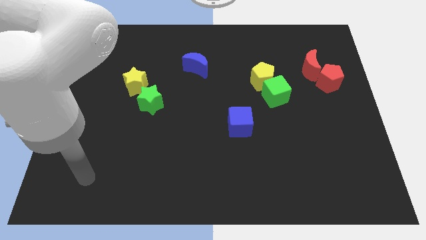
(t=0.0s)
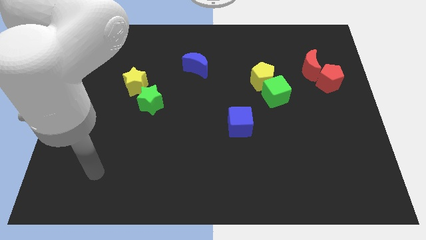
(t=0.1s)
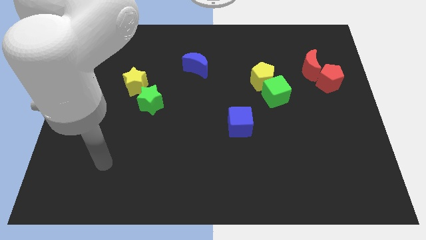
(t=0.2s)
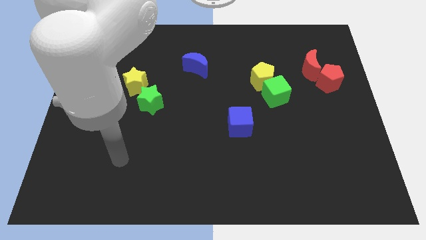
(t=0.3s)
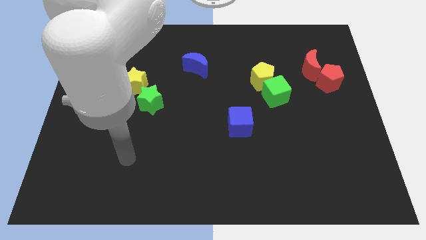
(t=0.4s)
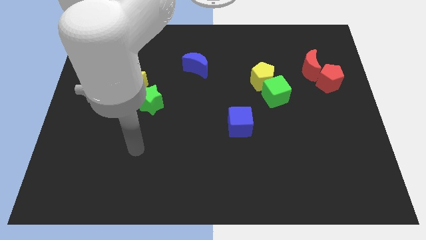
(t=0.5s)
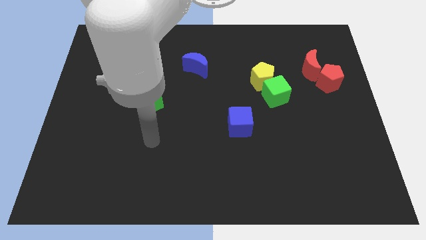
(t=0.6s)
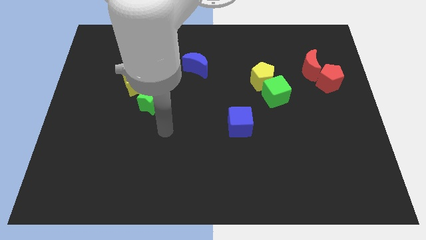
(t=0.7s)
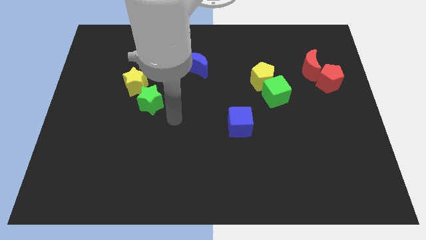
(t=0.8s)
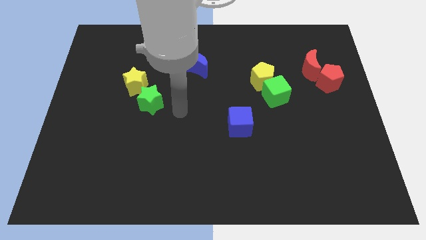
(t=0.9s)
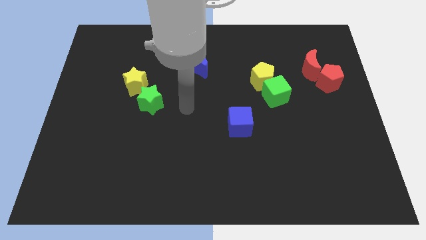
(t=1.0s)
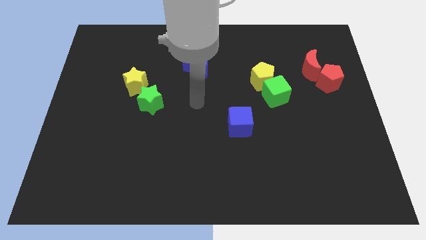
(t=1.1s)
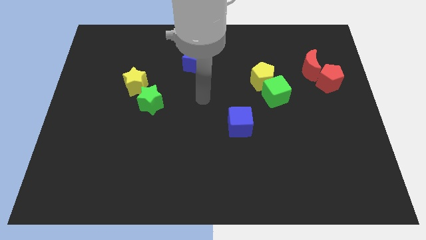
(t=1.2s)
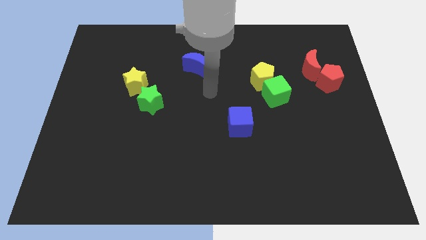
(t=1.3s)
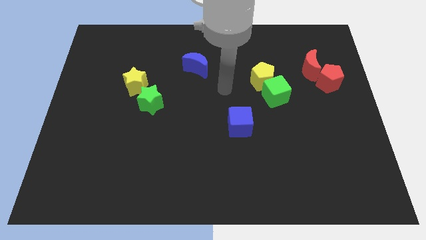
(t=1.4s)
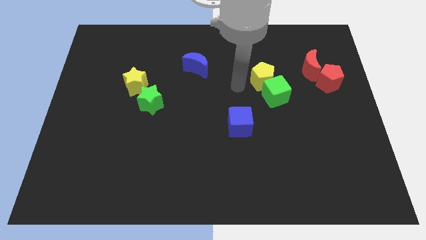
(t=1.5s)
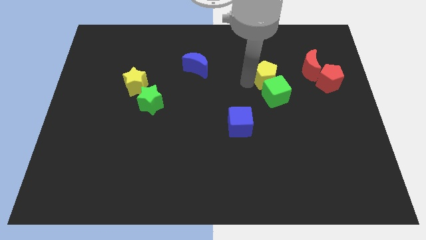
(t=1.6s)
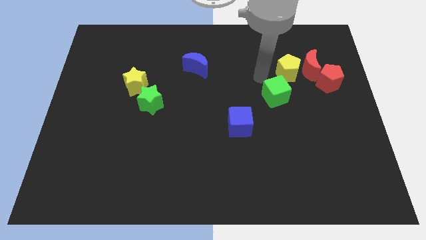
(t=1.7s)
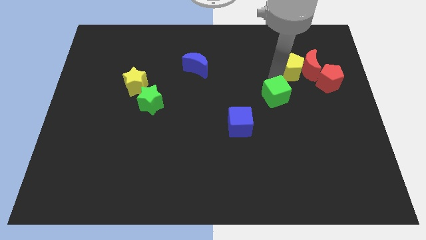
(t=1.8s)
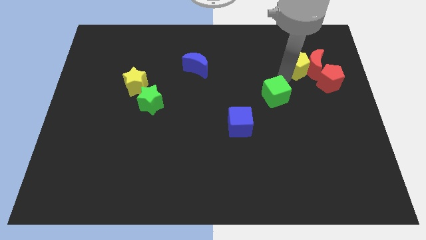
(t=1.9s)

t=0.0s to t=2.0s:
move the green cube away from the yellow pentagon

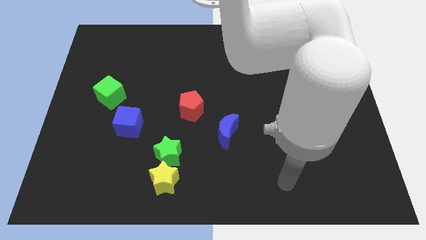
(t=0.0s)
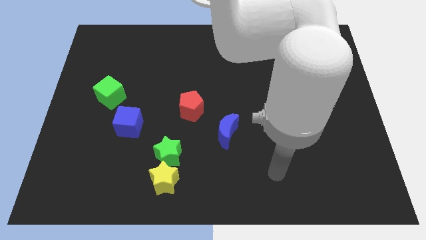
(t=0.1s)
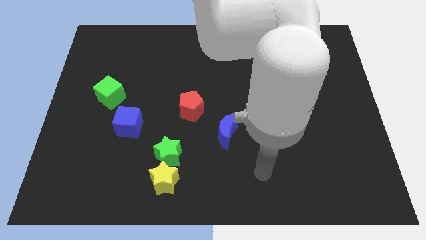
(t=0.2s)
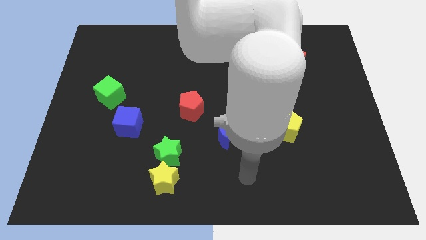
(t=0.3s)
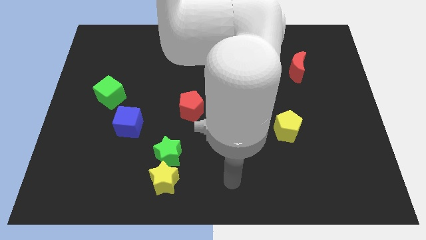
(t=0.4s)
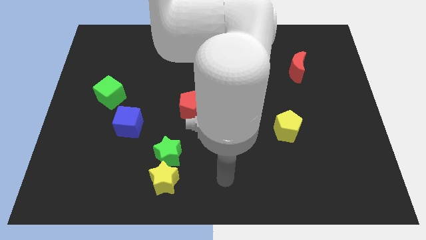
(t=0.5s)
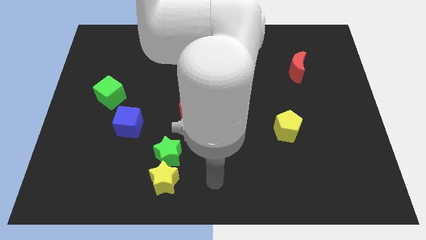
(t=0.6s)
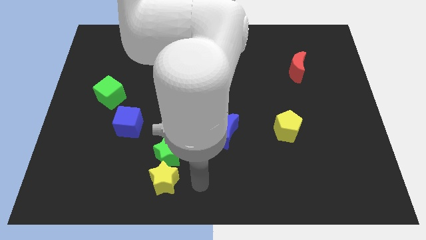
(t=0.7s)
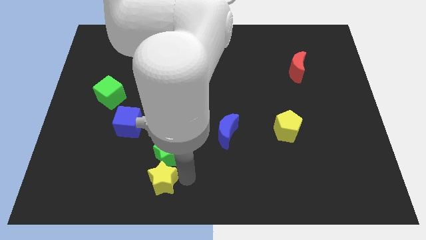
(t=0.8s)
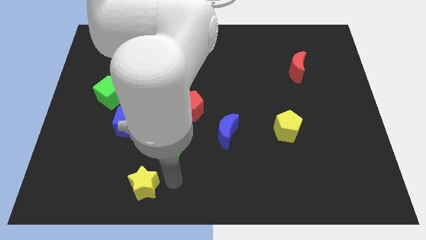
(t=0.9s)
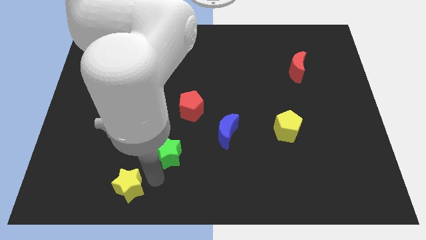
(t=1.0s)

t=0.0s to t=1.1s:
separate the green star from the yellow star

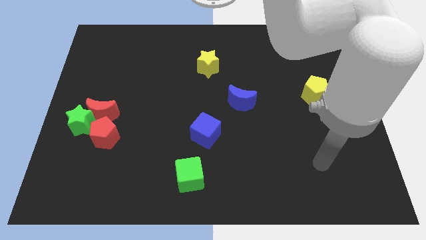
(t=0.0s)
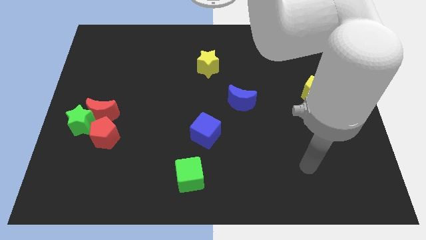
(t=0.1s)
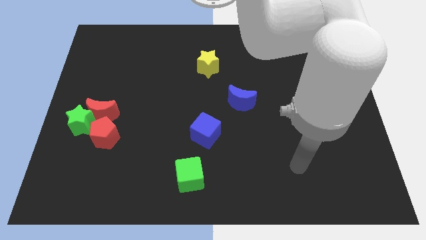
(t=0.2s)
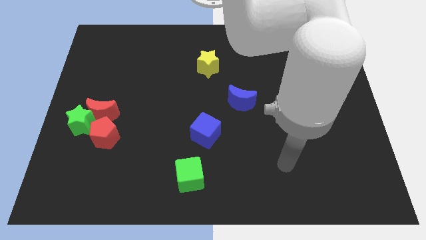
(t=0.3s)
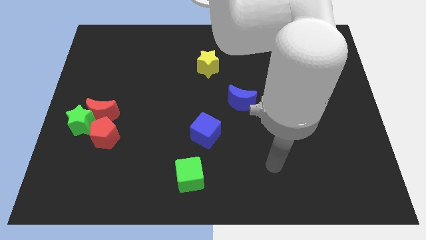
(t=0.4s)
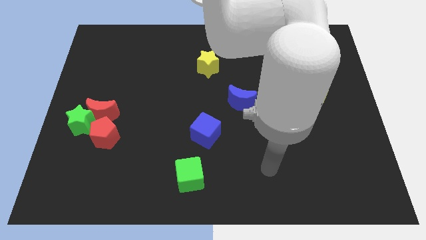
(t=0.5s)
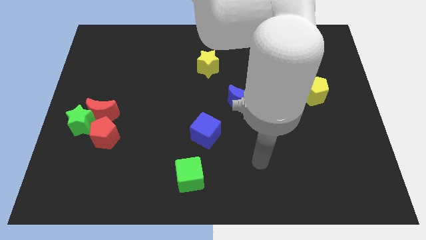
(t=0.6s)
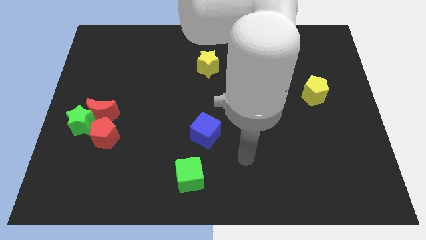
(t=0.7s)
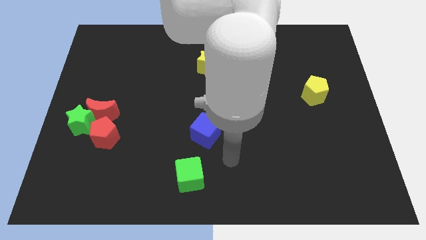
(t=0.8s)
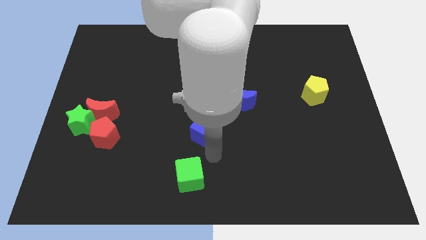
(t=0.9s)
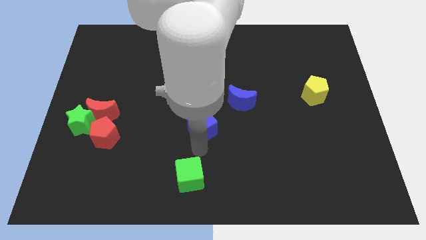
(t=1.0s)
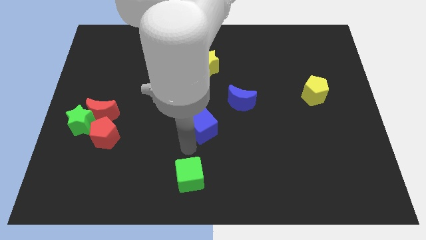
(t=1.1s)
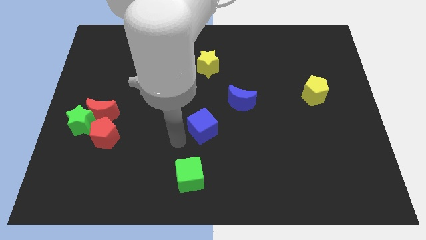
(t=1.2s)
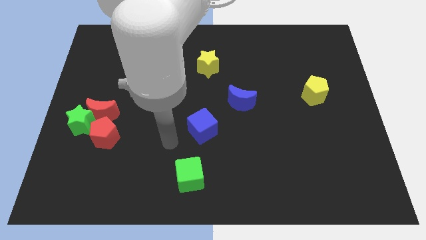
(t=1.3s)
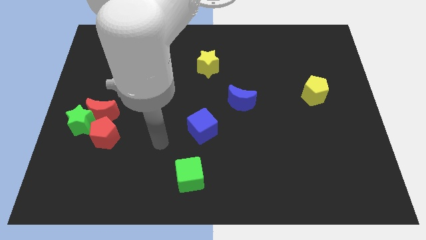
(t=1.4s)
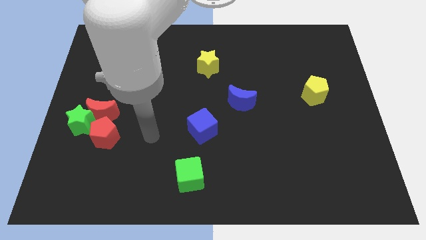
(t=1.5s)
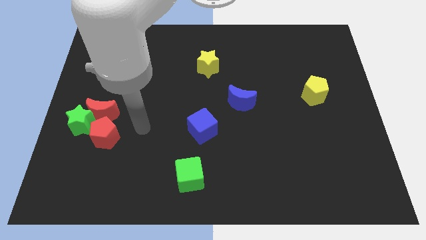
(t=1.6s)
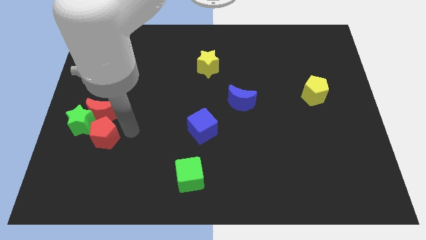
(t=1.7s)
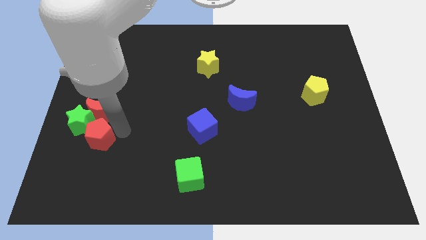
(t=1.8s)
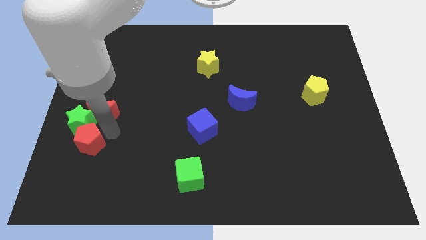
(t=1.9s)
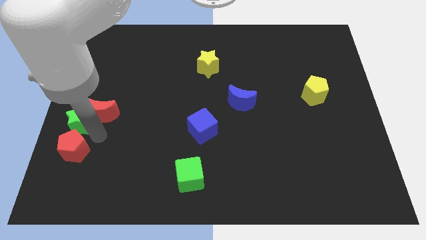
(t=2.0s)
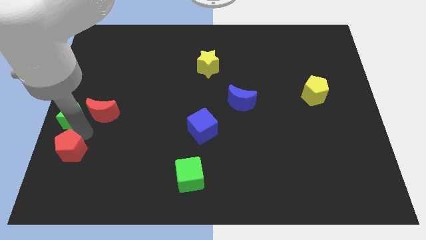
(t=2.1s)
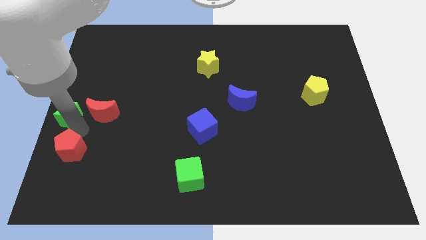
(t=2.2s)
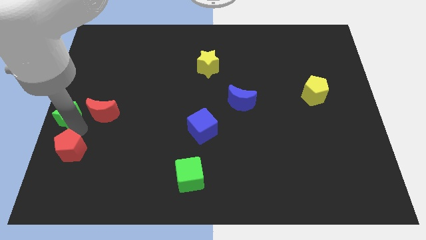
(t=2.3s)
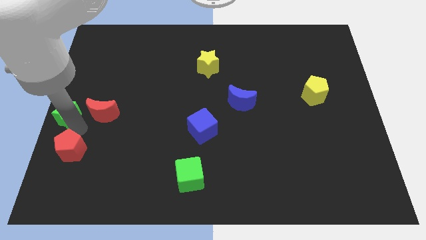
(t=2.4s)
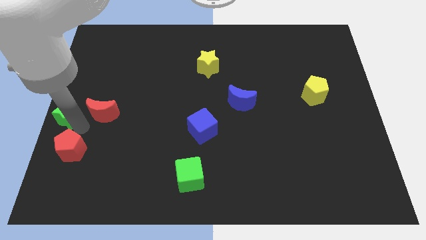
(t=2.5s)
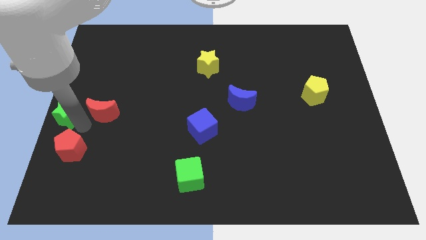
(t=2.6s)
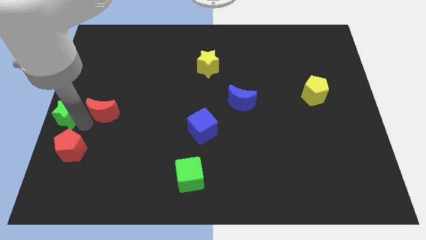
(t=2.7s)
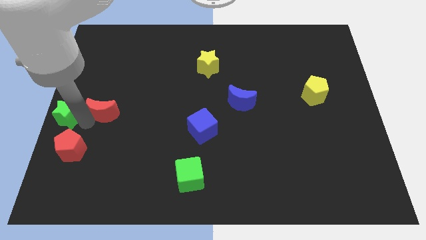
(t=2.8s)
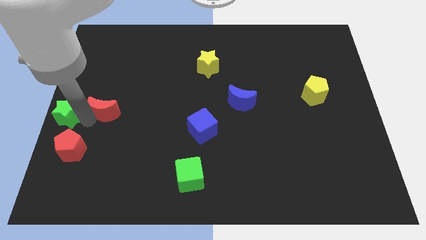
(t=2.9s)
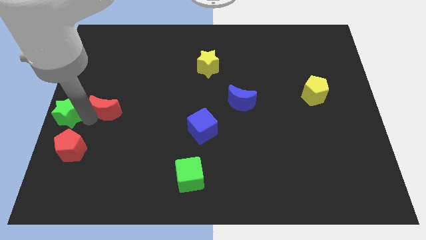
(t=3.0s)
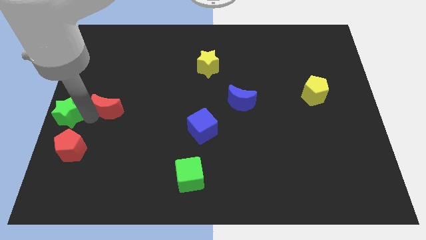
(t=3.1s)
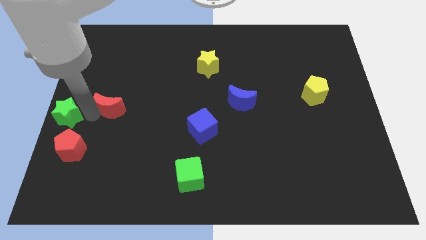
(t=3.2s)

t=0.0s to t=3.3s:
separate the red moon from the green star and red pentagon

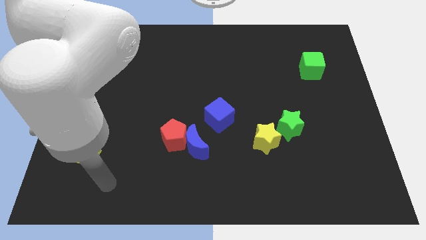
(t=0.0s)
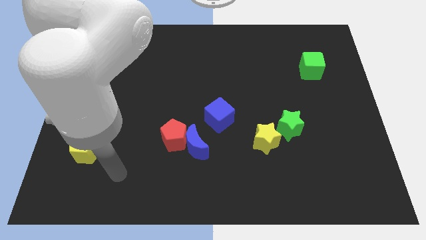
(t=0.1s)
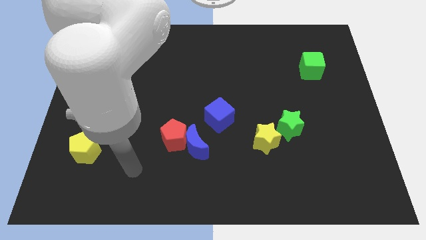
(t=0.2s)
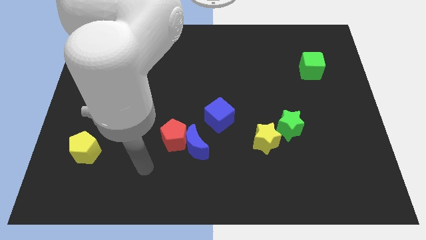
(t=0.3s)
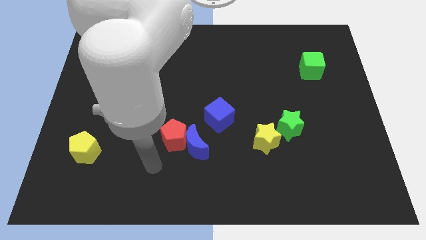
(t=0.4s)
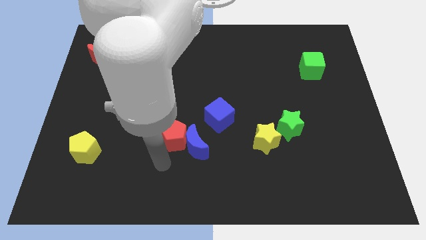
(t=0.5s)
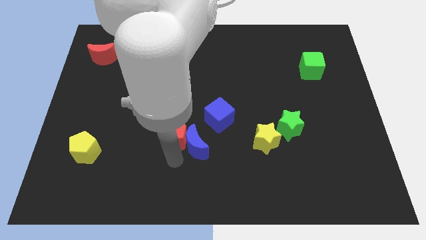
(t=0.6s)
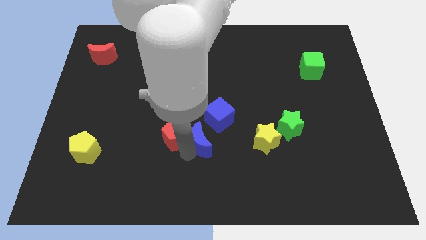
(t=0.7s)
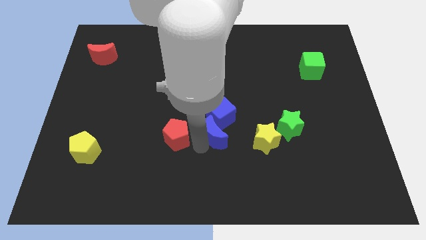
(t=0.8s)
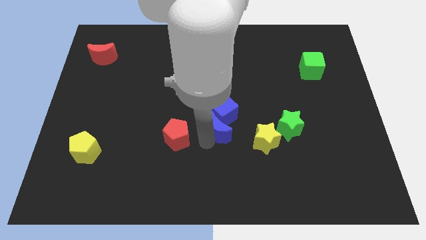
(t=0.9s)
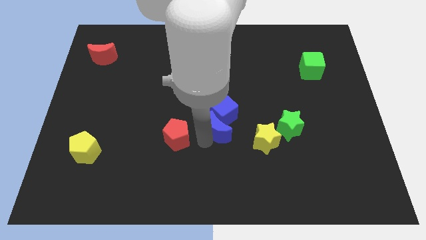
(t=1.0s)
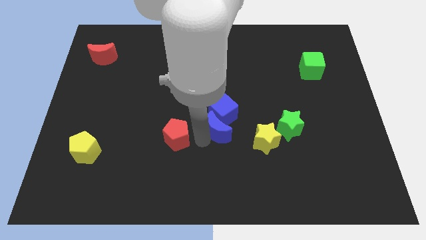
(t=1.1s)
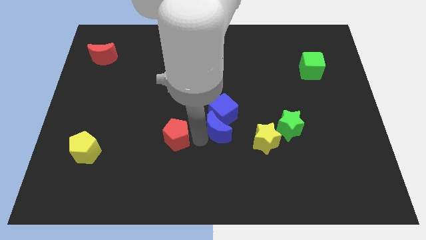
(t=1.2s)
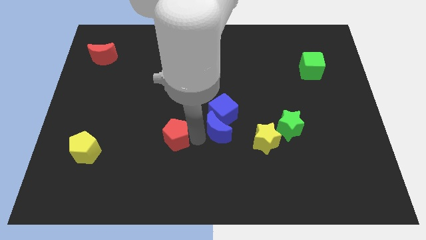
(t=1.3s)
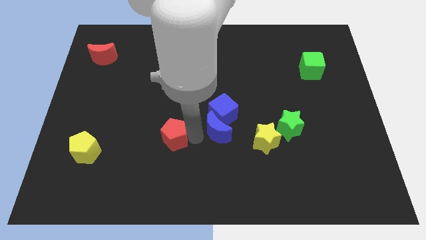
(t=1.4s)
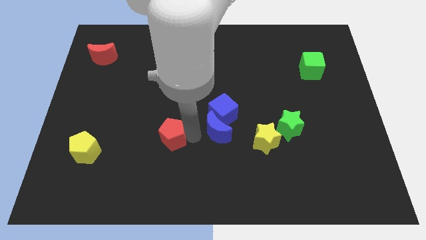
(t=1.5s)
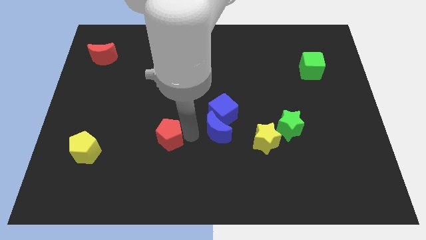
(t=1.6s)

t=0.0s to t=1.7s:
pull the red pentagon apart from the blue moon

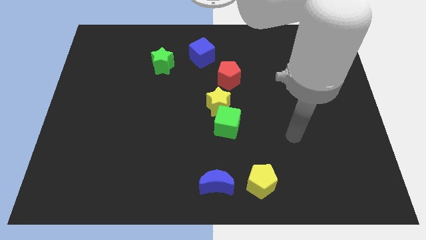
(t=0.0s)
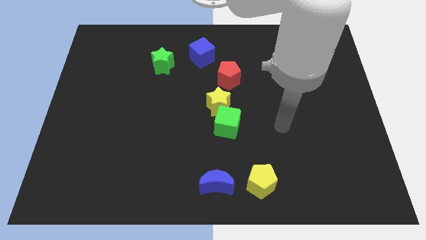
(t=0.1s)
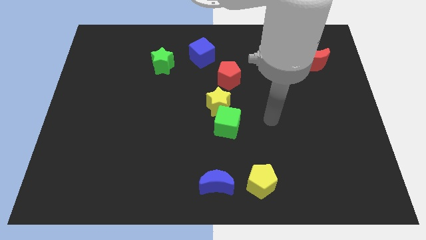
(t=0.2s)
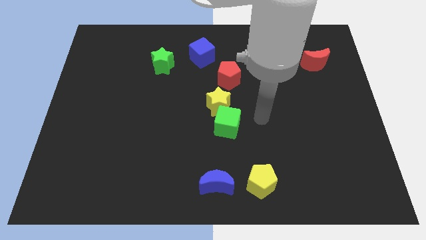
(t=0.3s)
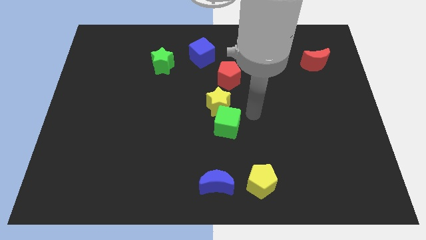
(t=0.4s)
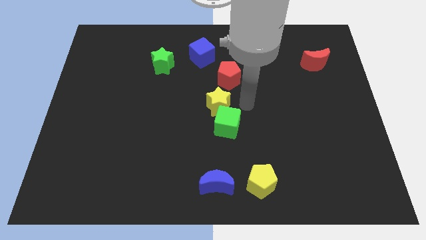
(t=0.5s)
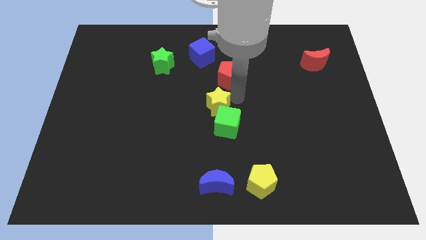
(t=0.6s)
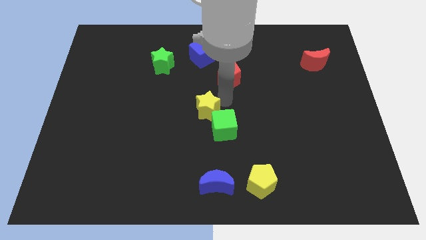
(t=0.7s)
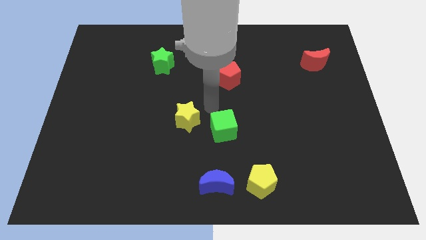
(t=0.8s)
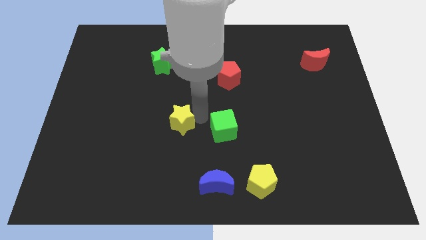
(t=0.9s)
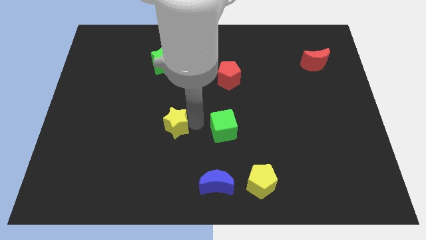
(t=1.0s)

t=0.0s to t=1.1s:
separate the green cube from the yellow star

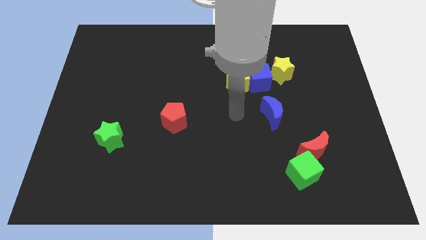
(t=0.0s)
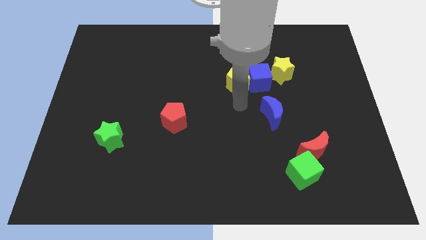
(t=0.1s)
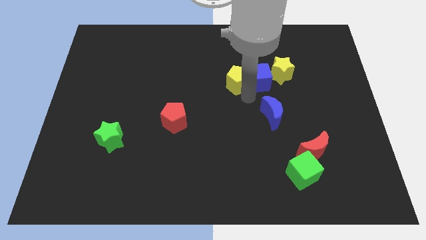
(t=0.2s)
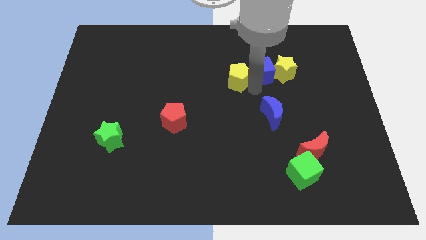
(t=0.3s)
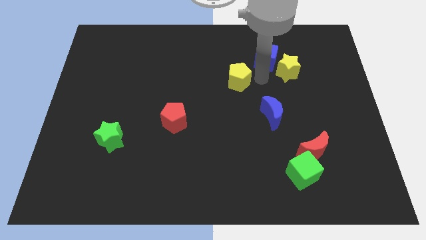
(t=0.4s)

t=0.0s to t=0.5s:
move the yellow pentagon away from the blue cube
